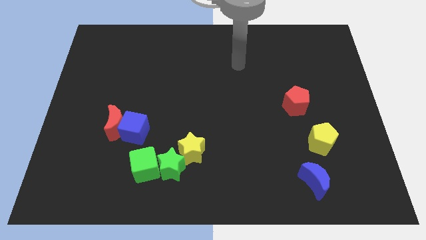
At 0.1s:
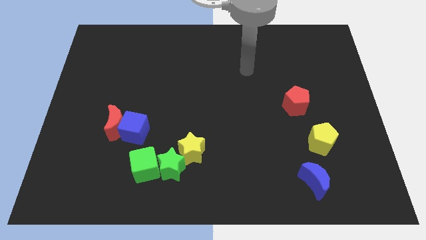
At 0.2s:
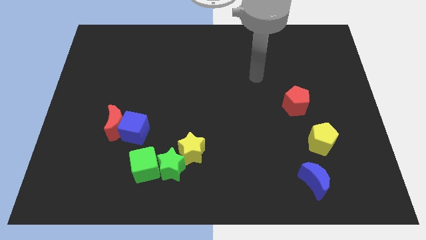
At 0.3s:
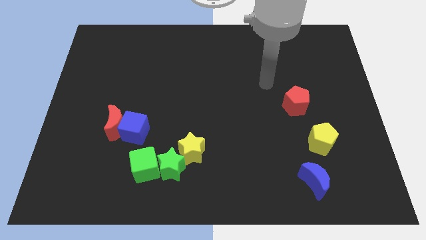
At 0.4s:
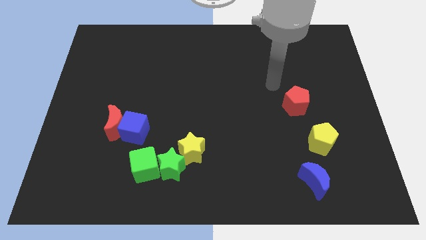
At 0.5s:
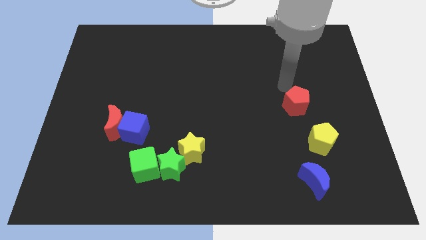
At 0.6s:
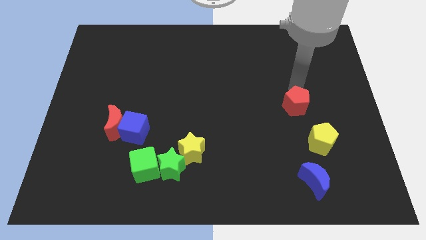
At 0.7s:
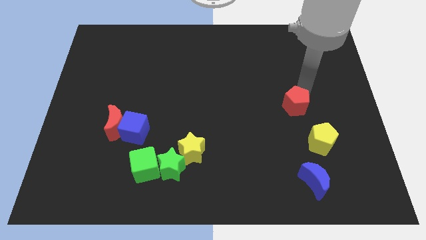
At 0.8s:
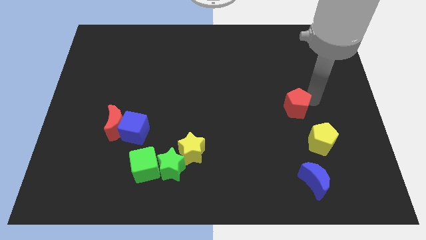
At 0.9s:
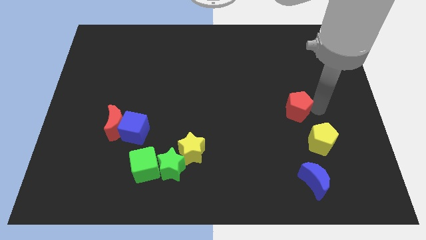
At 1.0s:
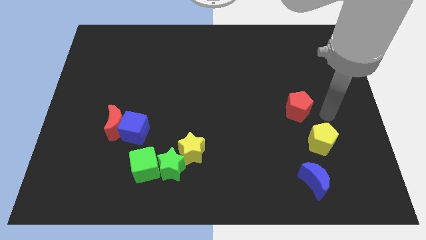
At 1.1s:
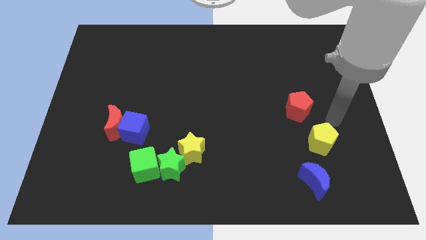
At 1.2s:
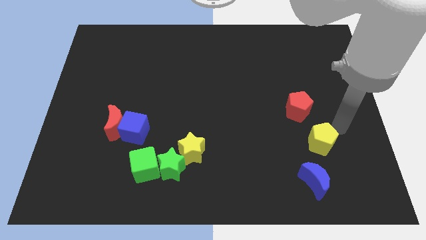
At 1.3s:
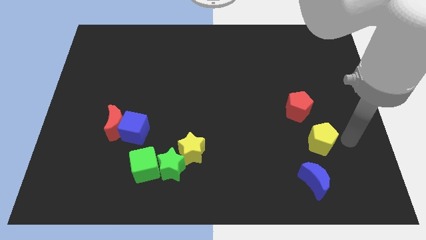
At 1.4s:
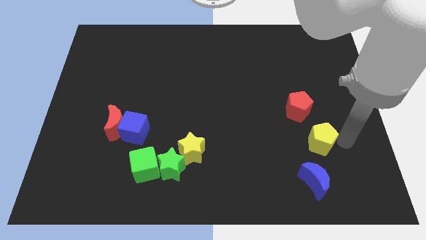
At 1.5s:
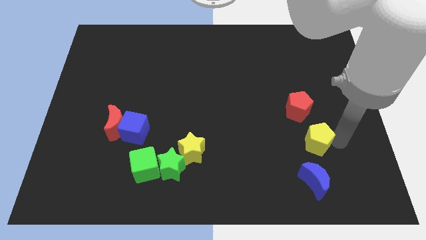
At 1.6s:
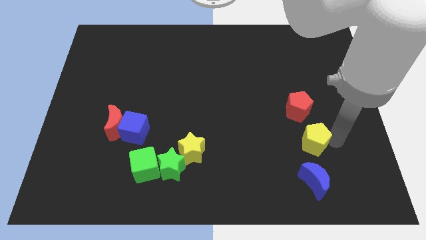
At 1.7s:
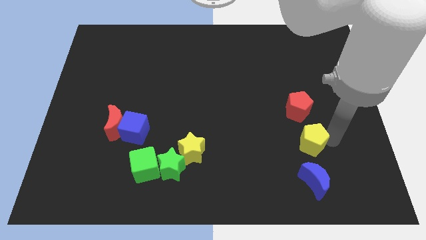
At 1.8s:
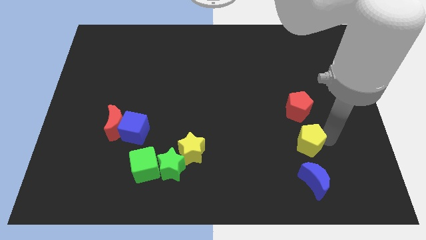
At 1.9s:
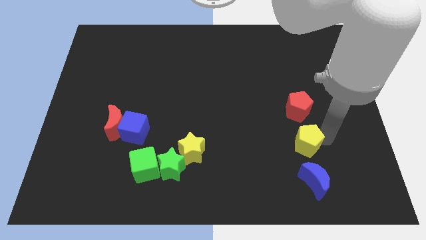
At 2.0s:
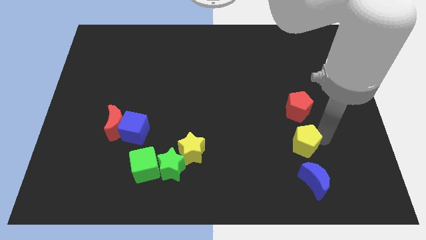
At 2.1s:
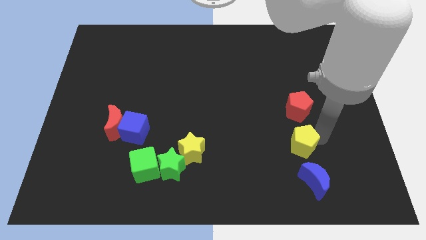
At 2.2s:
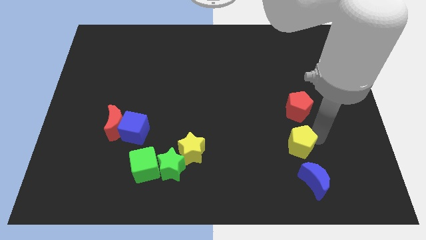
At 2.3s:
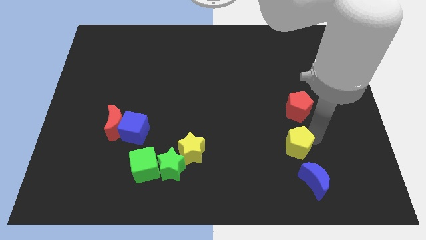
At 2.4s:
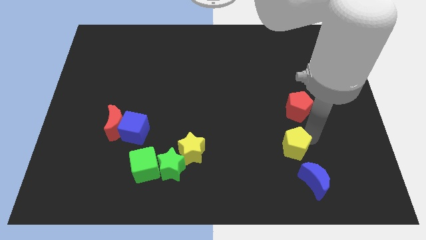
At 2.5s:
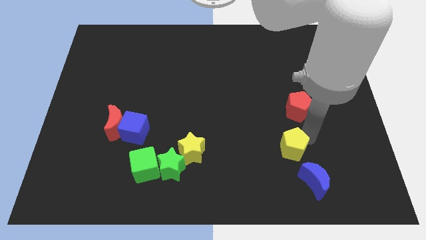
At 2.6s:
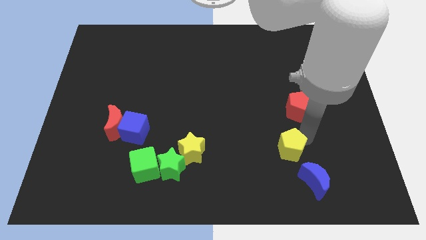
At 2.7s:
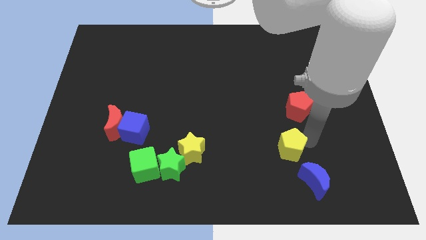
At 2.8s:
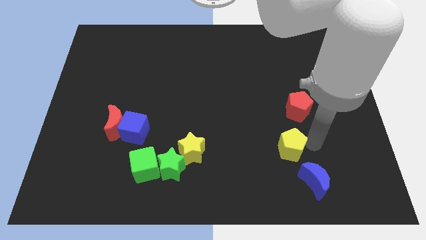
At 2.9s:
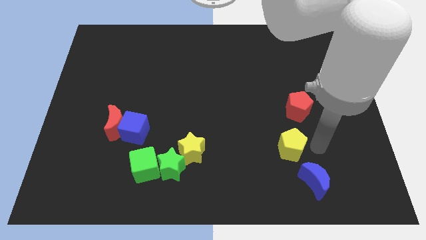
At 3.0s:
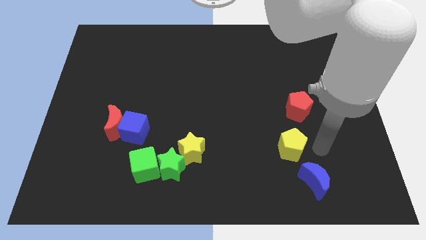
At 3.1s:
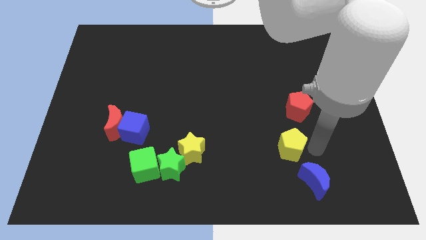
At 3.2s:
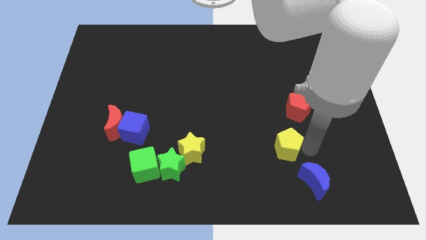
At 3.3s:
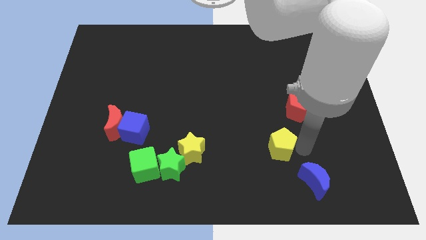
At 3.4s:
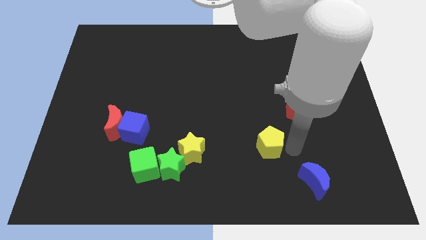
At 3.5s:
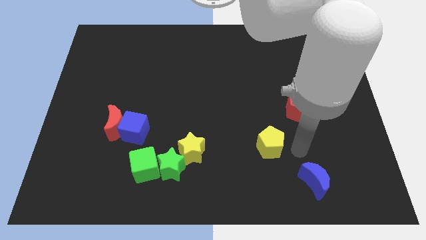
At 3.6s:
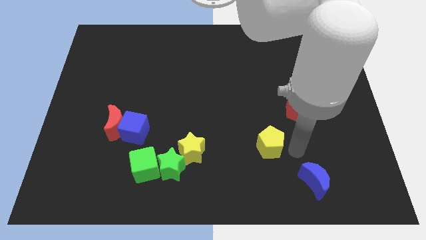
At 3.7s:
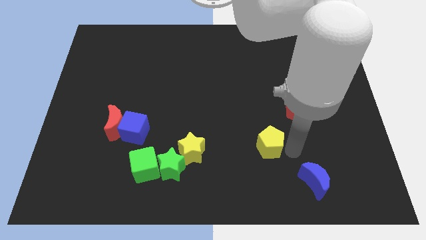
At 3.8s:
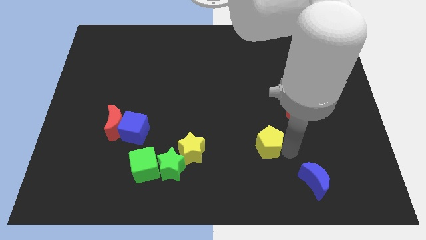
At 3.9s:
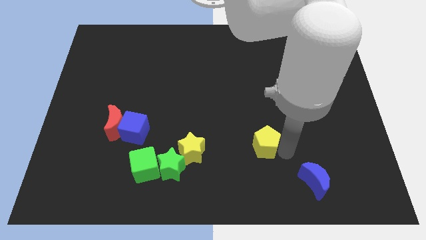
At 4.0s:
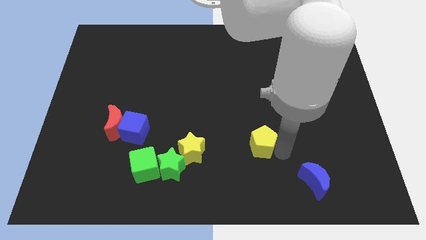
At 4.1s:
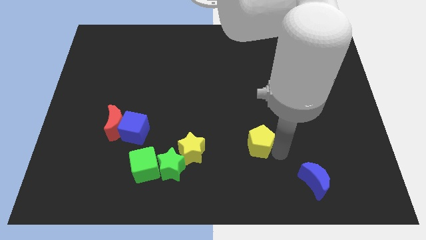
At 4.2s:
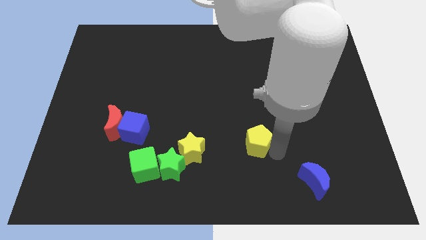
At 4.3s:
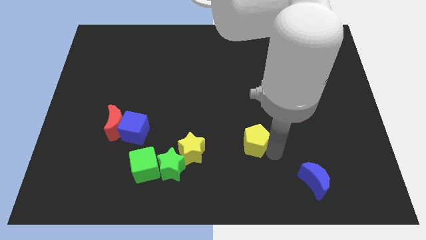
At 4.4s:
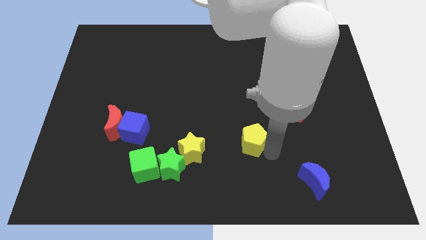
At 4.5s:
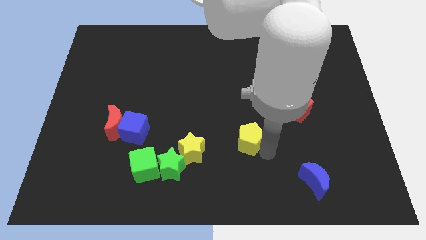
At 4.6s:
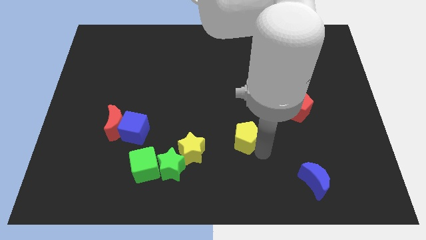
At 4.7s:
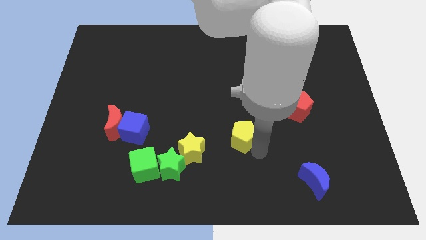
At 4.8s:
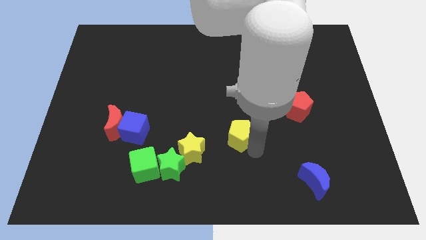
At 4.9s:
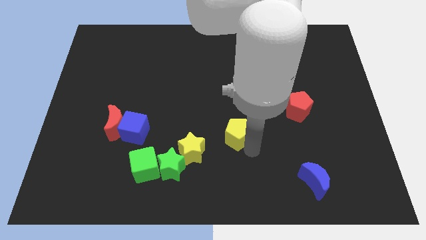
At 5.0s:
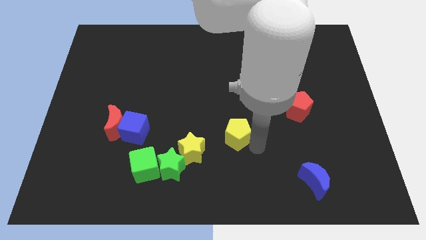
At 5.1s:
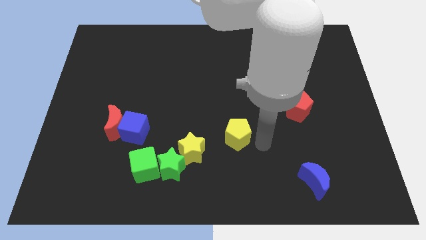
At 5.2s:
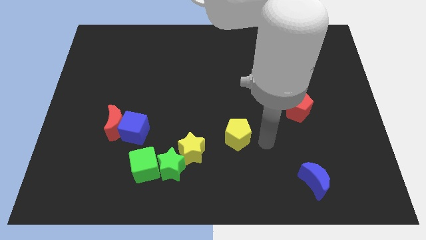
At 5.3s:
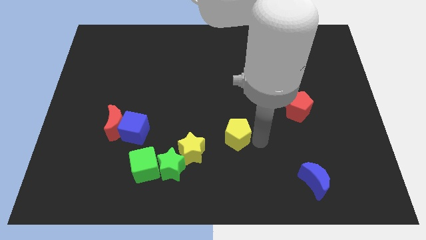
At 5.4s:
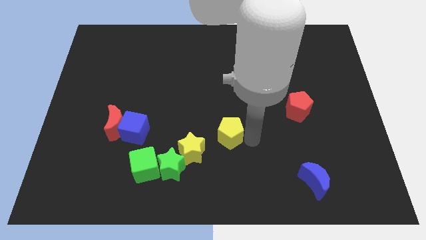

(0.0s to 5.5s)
push the yellow pentagon left

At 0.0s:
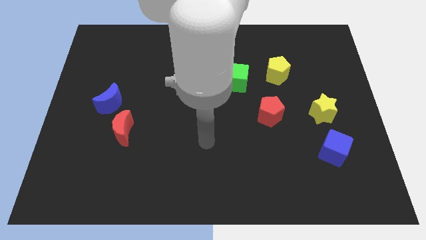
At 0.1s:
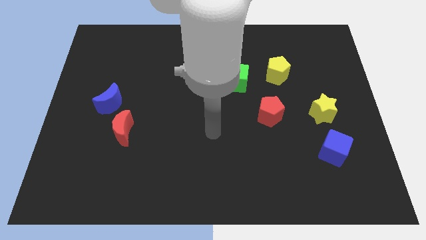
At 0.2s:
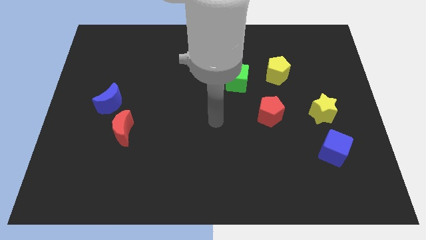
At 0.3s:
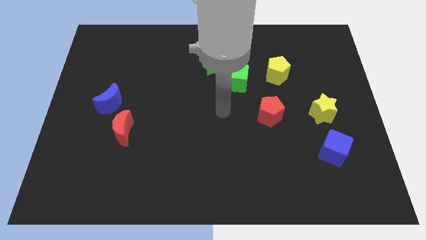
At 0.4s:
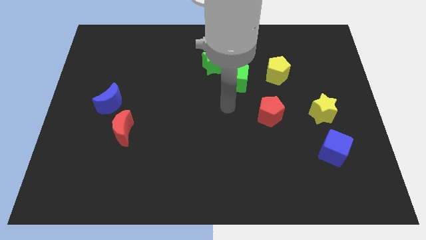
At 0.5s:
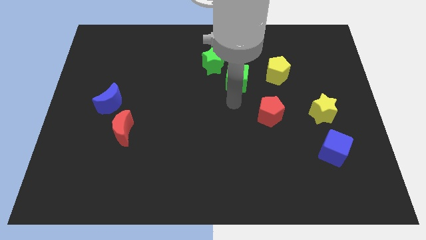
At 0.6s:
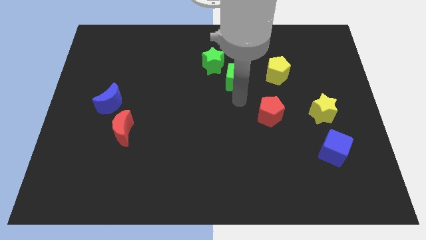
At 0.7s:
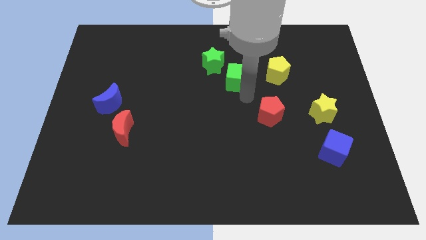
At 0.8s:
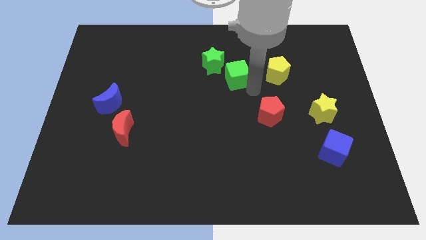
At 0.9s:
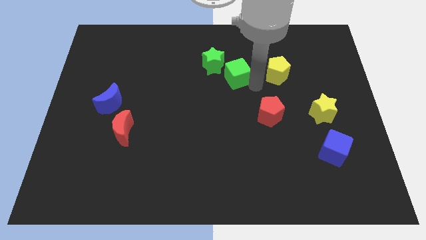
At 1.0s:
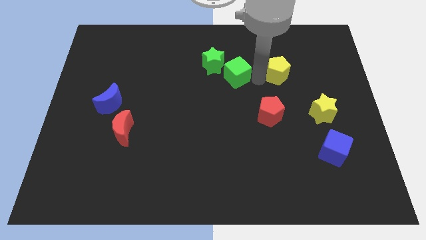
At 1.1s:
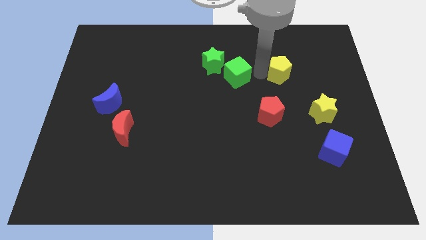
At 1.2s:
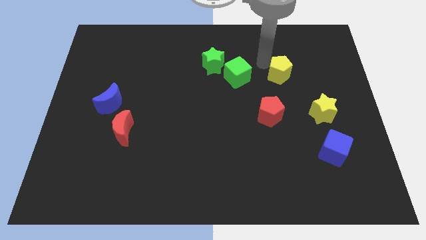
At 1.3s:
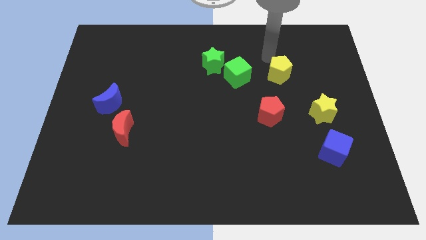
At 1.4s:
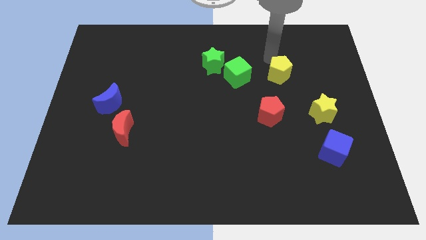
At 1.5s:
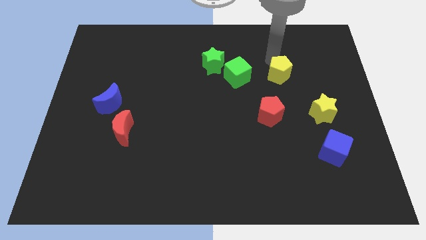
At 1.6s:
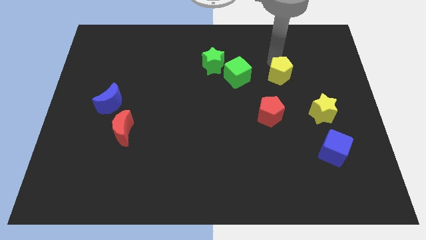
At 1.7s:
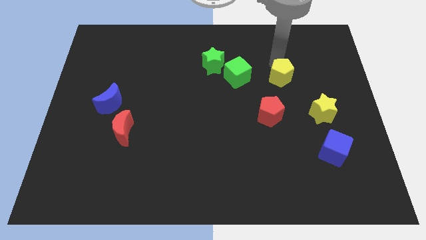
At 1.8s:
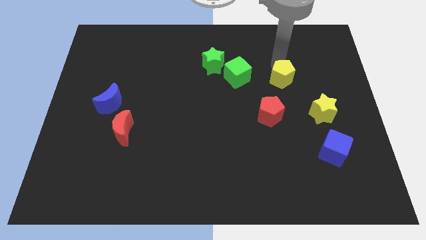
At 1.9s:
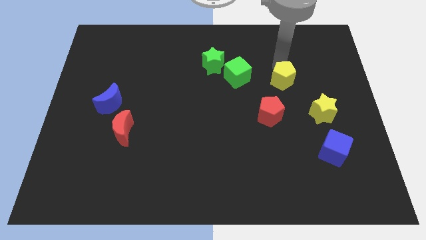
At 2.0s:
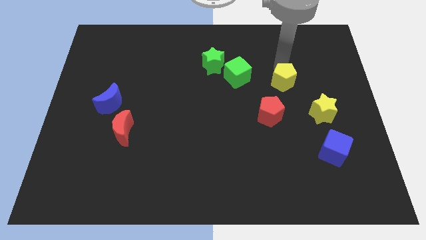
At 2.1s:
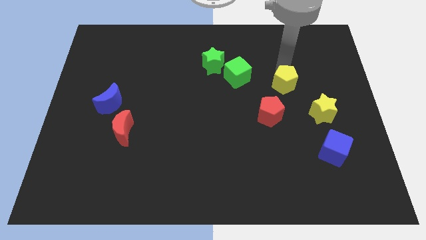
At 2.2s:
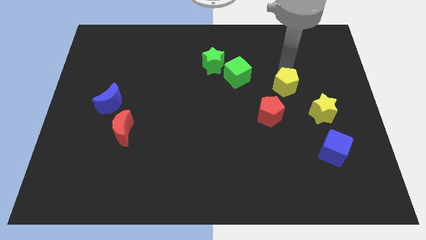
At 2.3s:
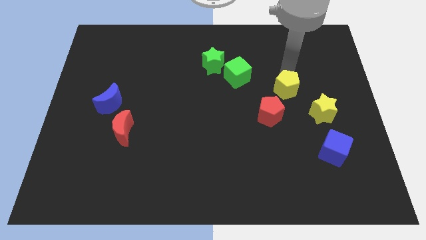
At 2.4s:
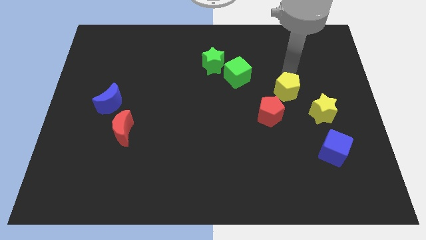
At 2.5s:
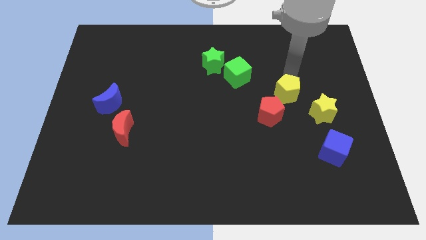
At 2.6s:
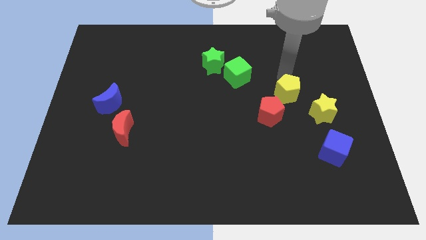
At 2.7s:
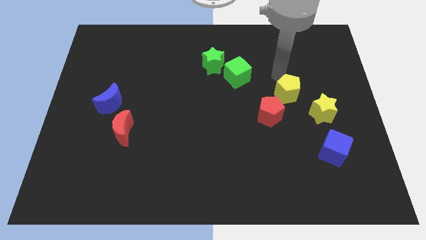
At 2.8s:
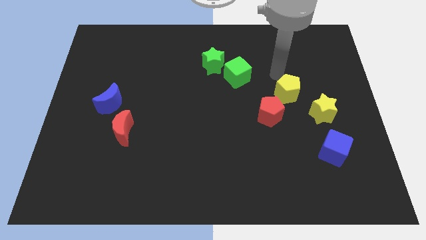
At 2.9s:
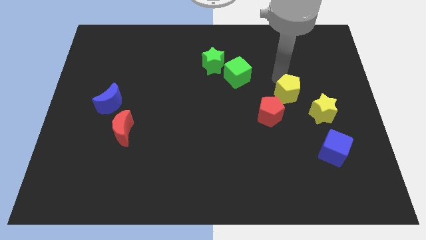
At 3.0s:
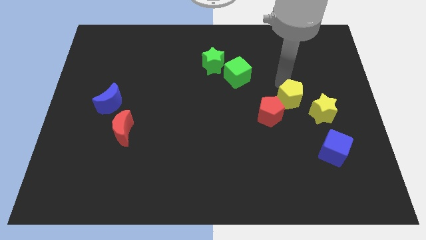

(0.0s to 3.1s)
slide the yellow pentagon downwards a little bit
